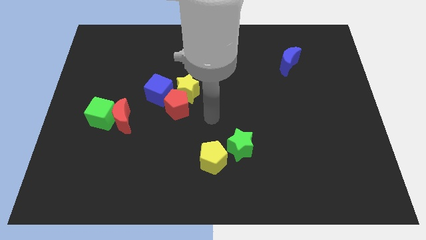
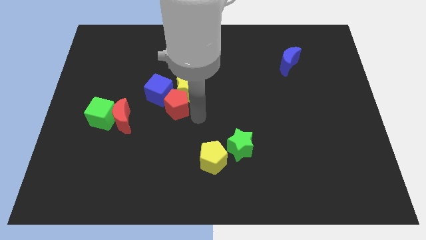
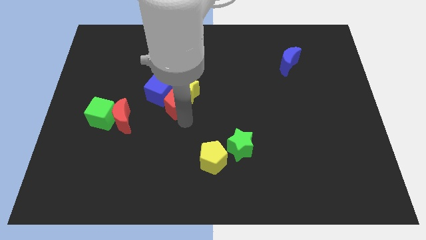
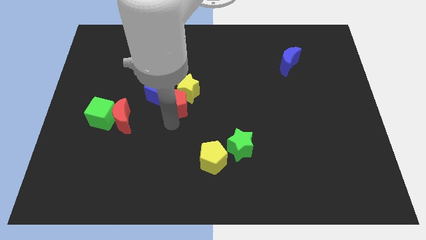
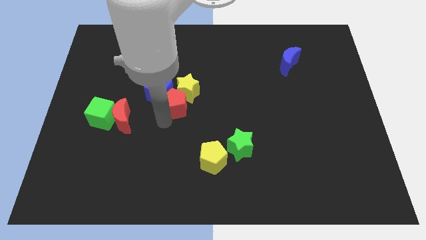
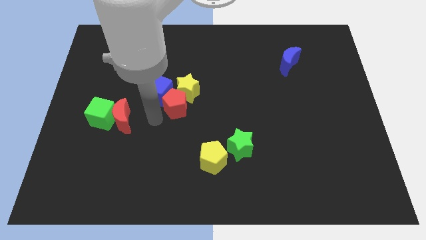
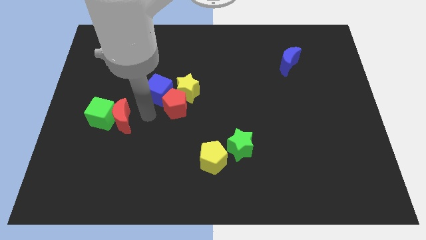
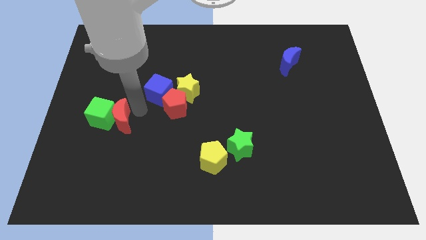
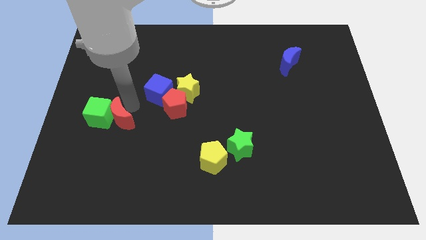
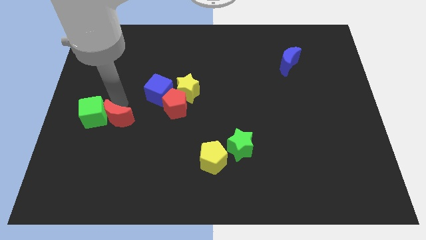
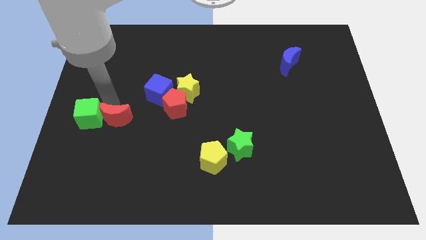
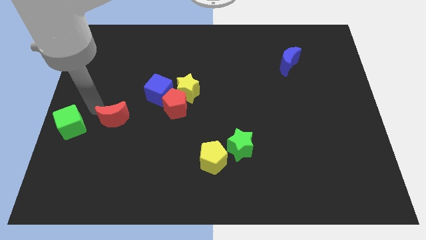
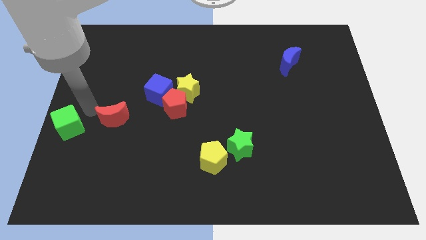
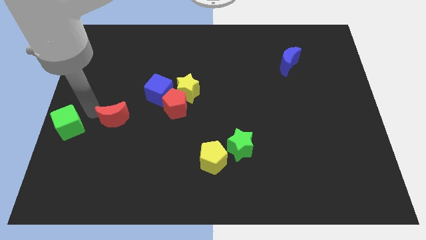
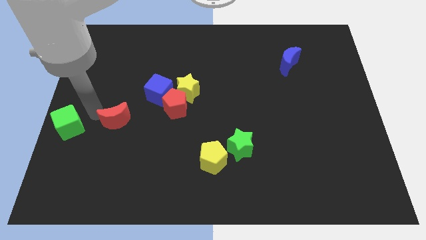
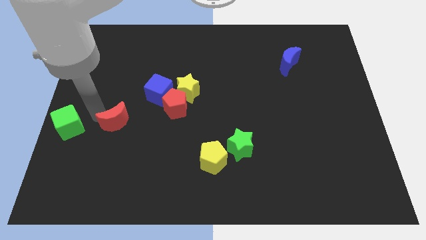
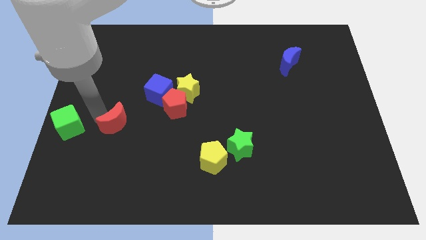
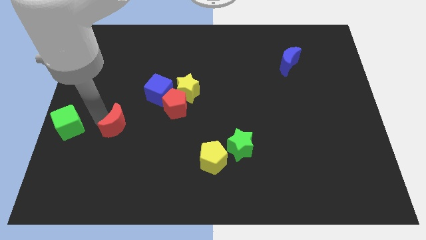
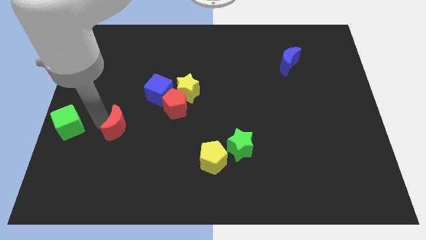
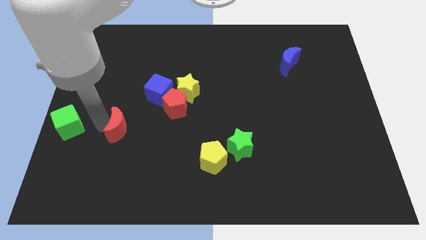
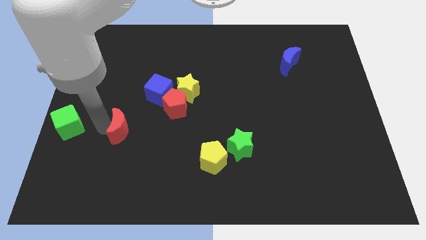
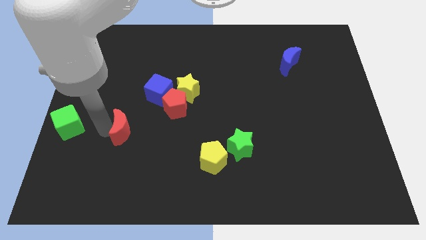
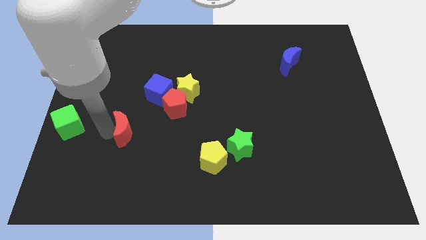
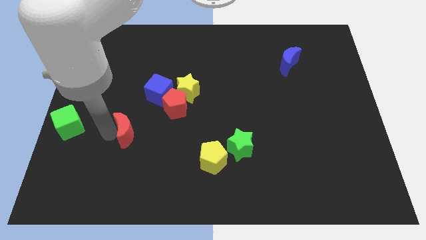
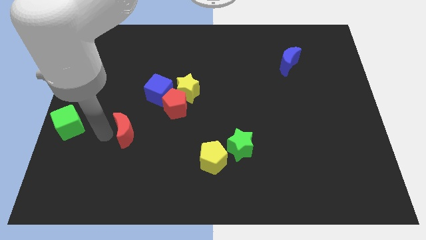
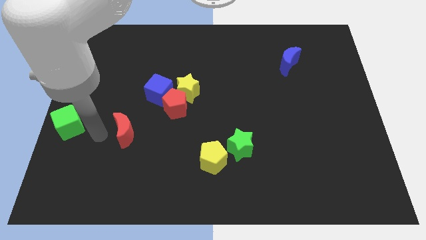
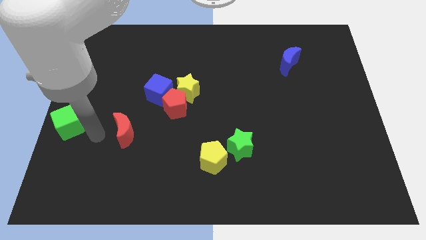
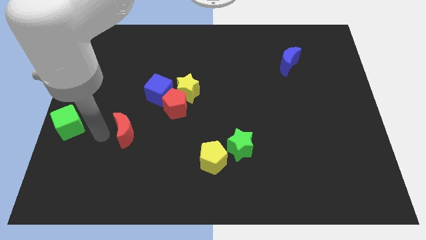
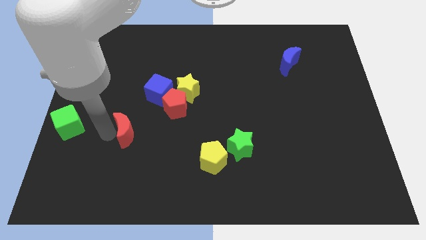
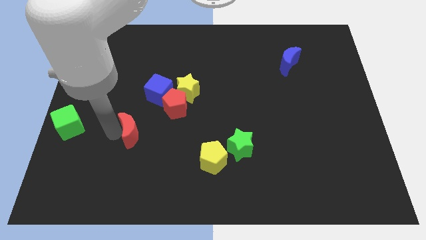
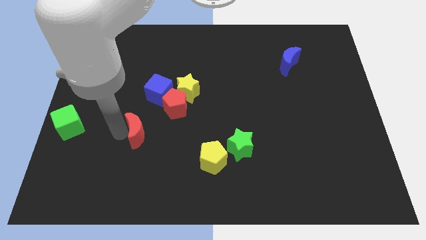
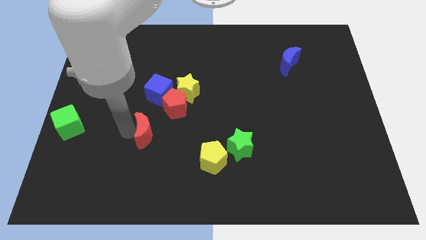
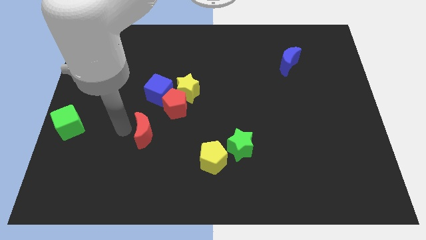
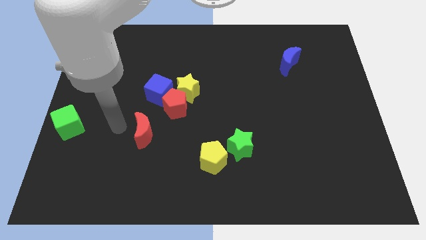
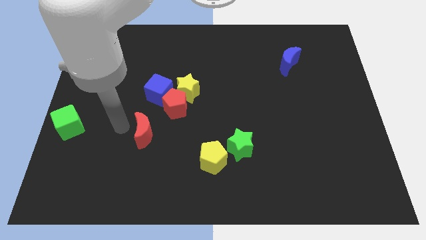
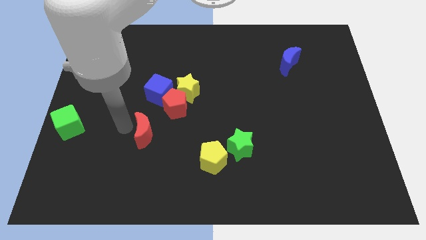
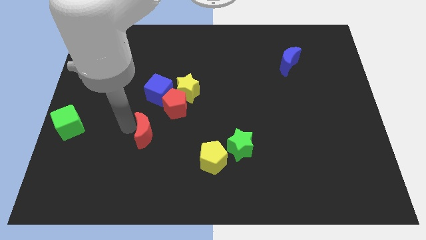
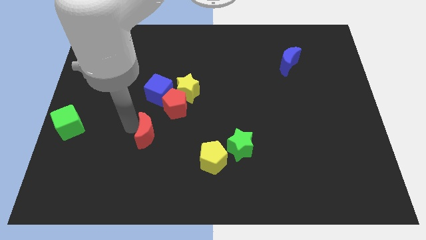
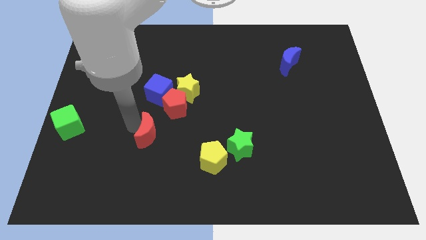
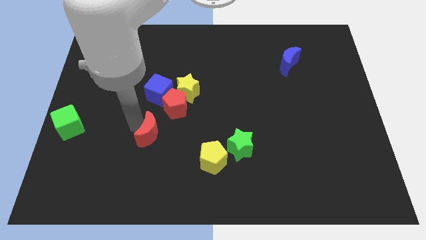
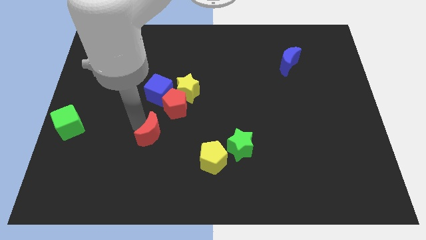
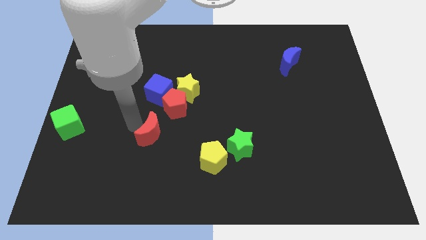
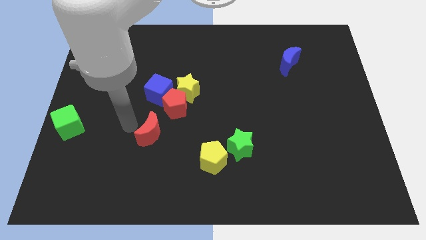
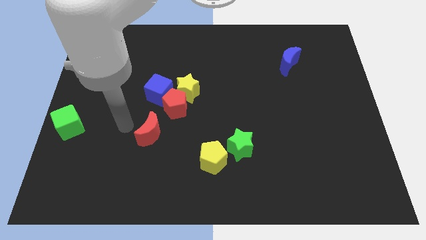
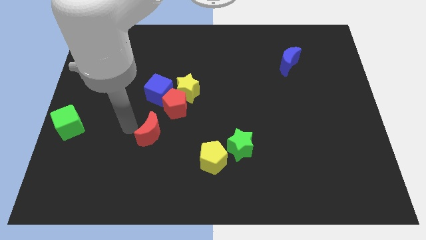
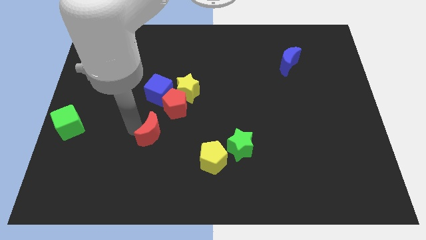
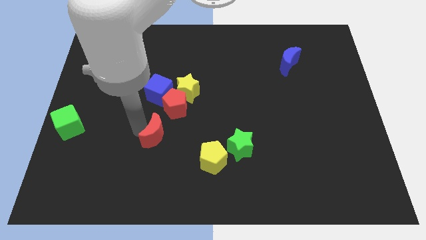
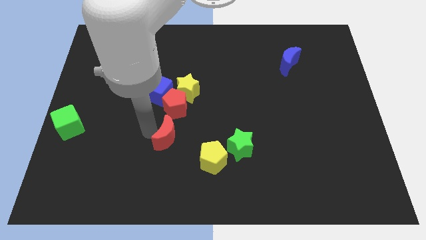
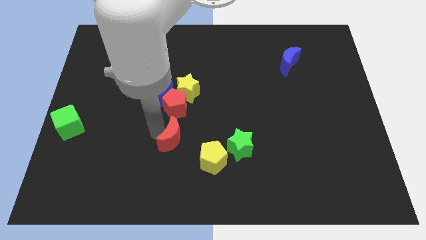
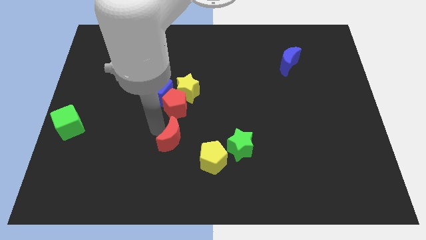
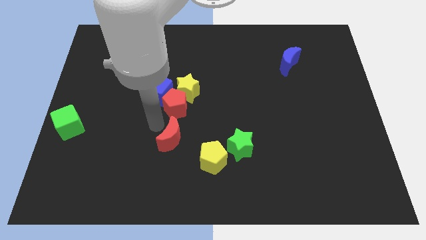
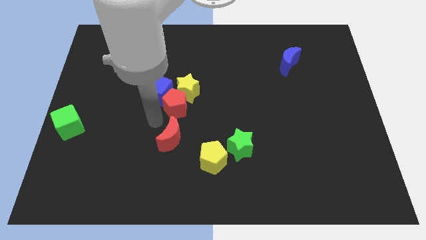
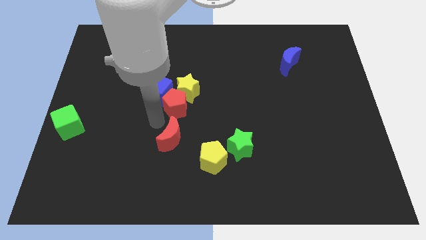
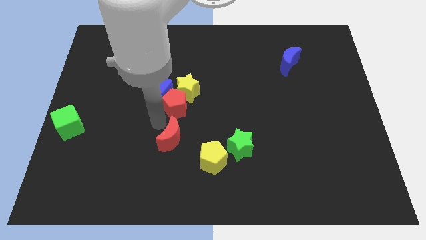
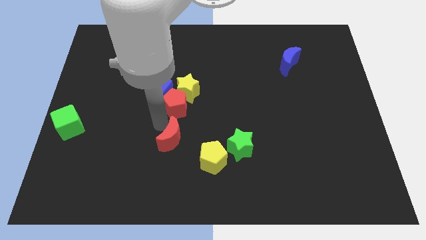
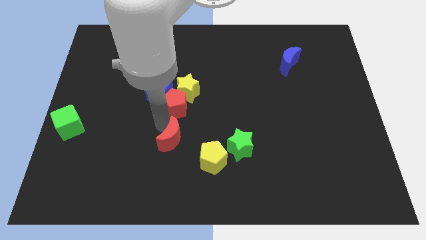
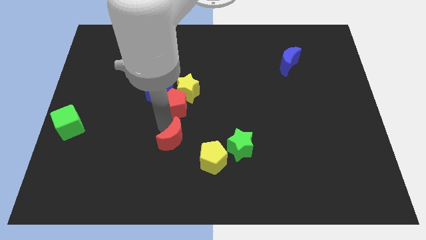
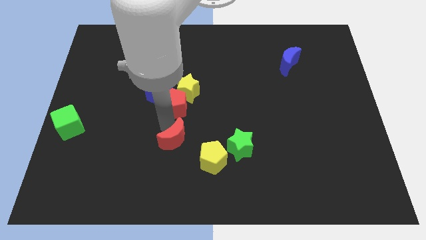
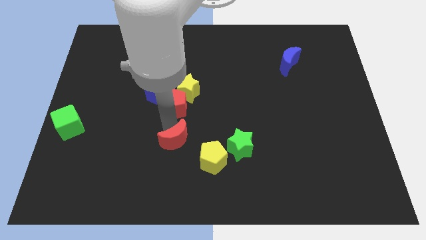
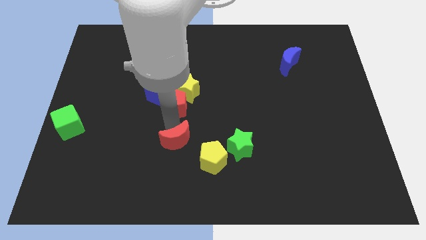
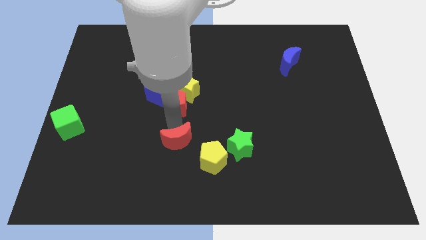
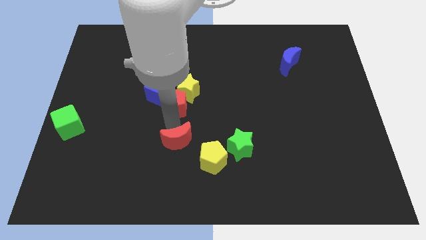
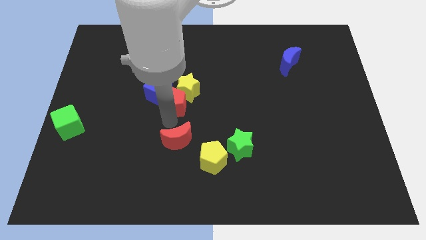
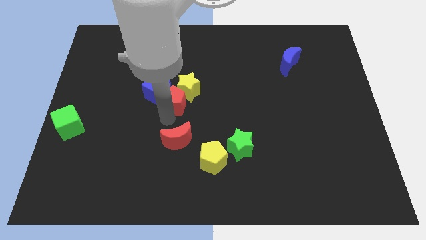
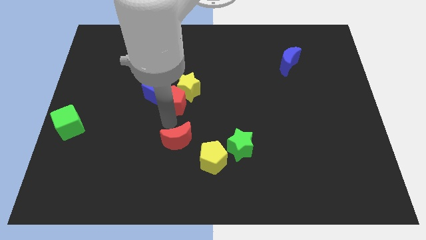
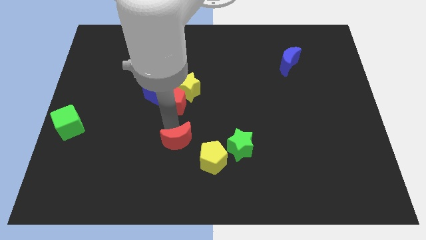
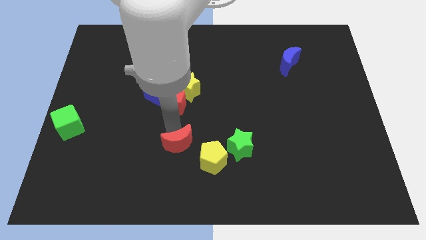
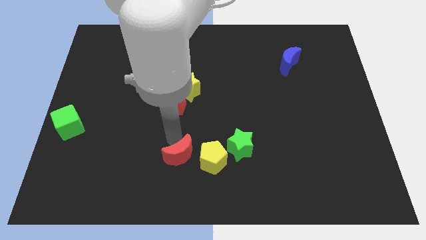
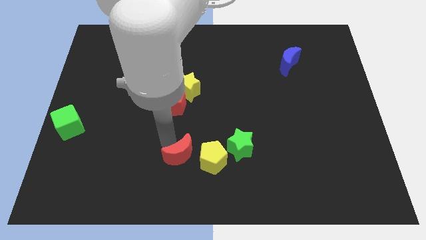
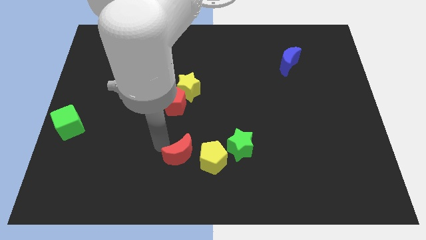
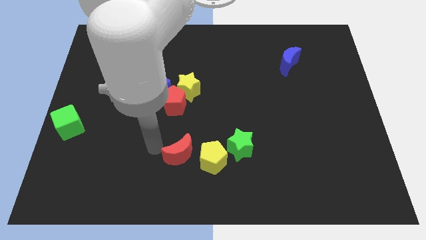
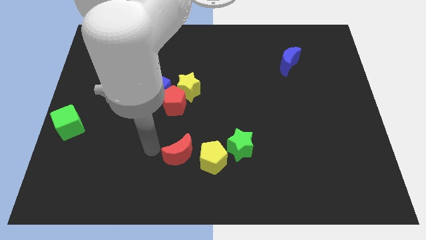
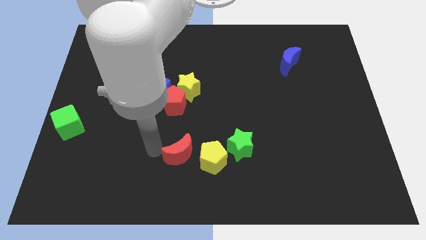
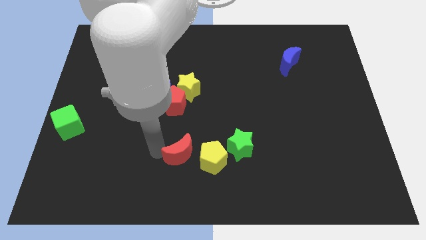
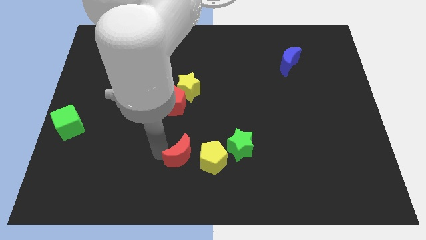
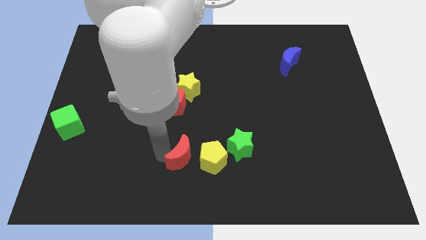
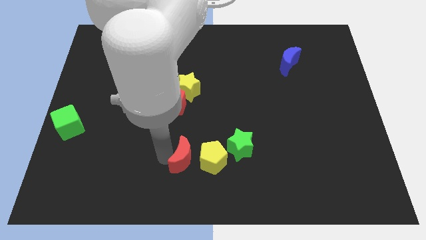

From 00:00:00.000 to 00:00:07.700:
move the red moon towards the yellow pentagon
